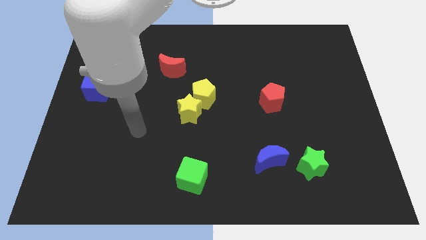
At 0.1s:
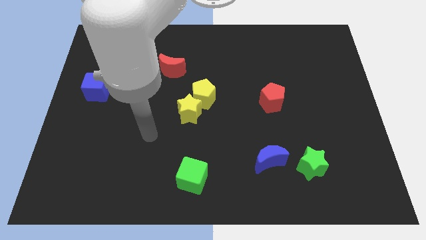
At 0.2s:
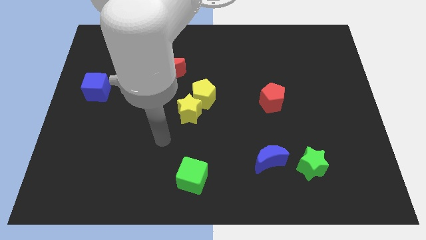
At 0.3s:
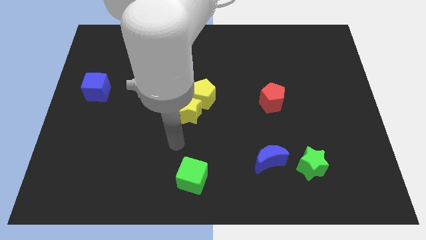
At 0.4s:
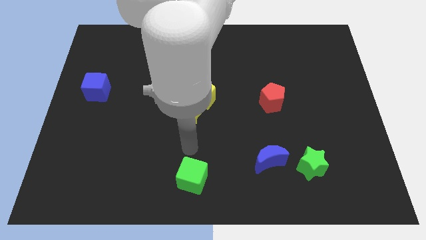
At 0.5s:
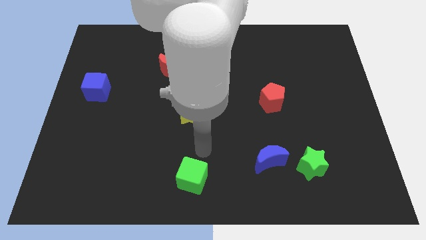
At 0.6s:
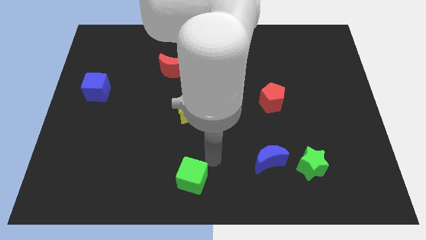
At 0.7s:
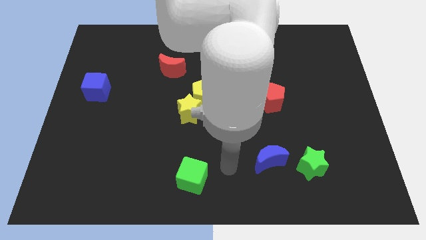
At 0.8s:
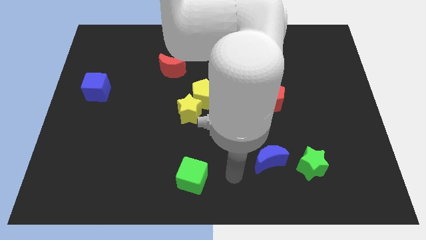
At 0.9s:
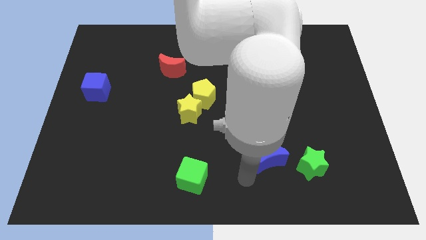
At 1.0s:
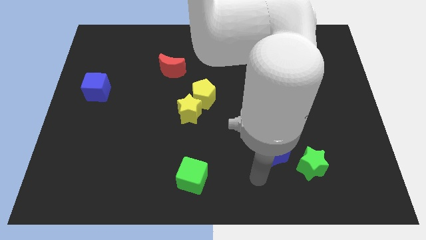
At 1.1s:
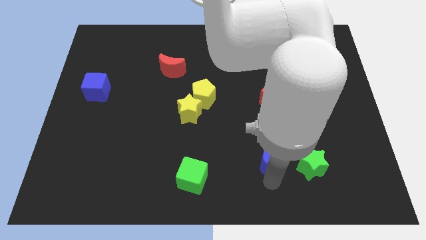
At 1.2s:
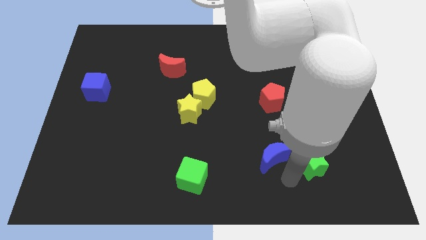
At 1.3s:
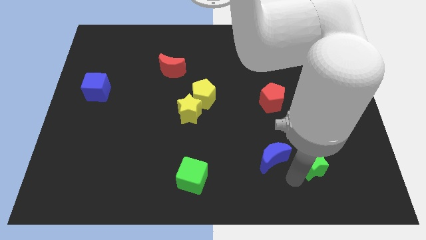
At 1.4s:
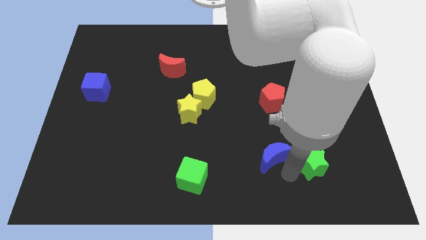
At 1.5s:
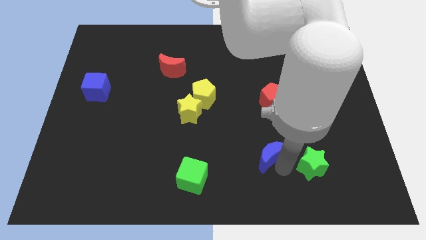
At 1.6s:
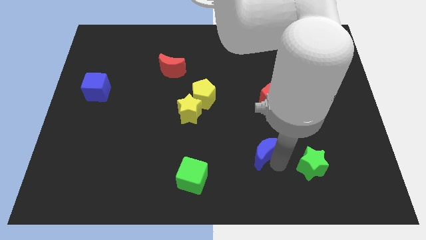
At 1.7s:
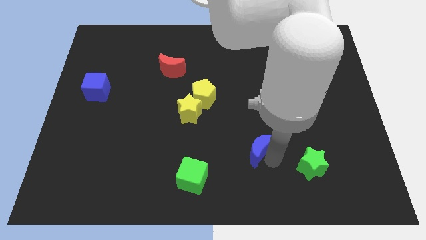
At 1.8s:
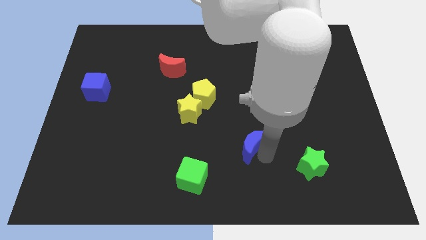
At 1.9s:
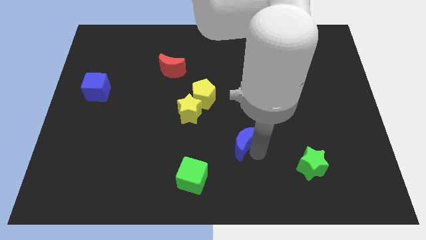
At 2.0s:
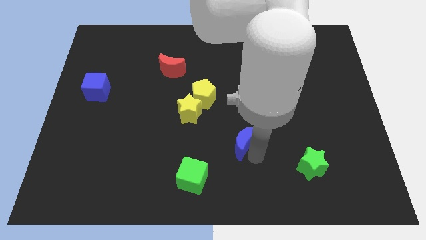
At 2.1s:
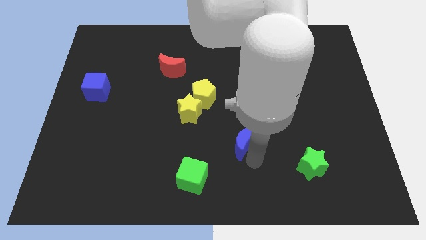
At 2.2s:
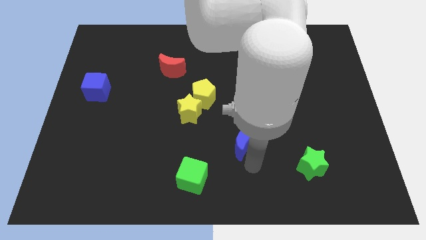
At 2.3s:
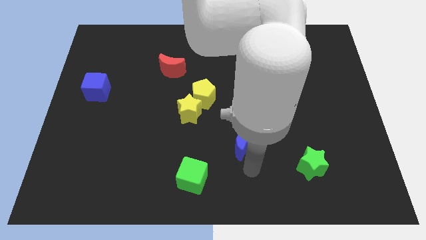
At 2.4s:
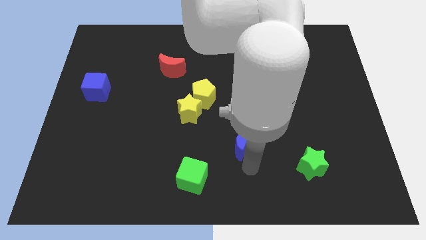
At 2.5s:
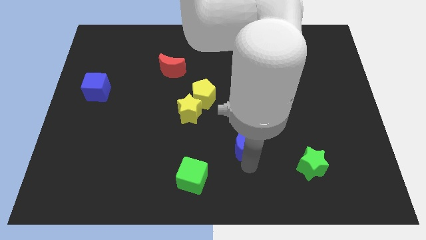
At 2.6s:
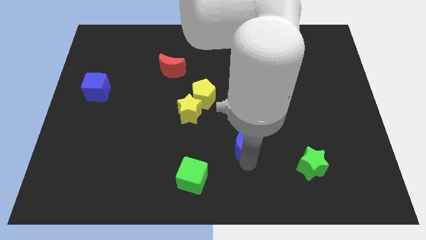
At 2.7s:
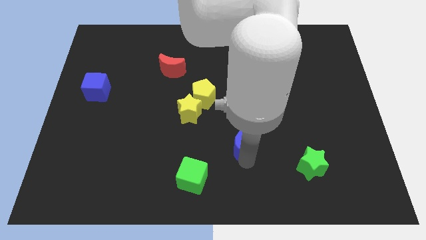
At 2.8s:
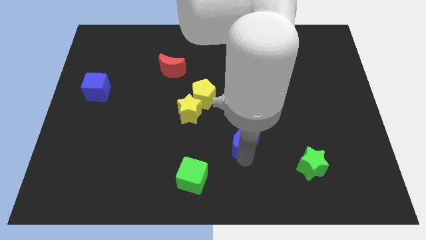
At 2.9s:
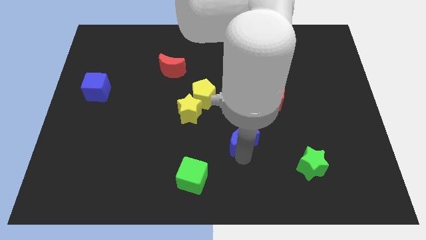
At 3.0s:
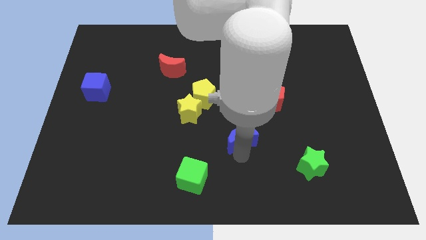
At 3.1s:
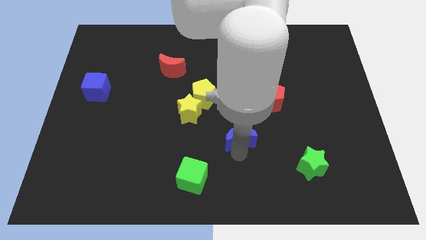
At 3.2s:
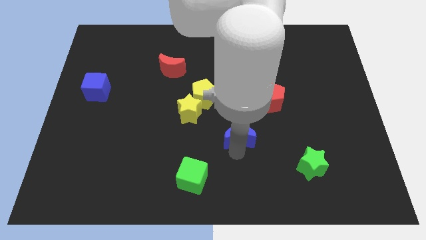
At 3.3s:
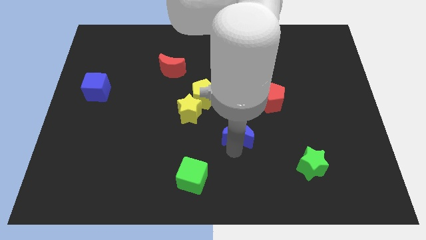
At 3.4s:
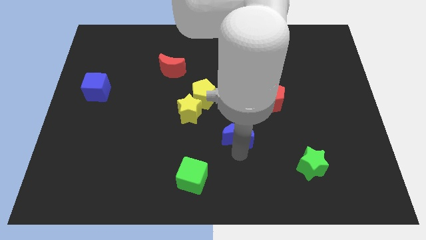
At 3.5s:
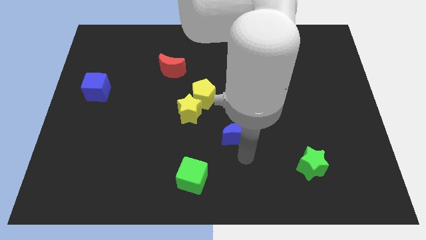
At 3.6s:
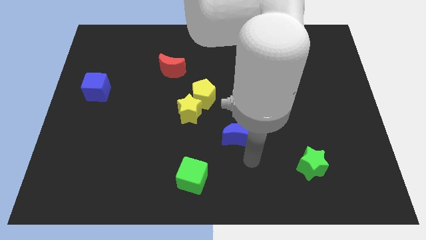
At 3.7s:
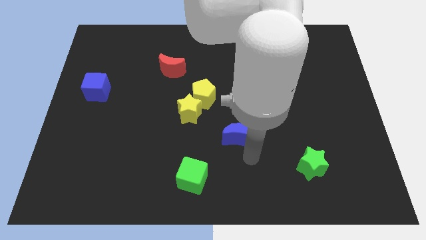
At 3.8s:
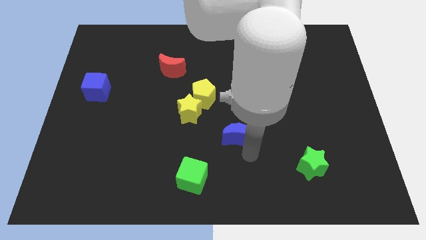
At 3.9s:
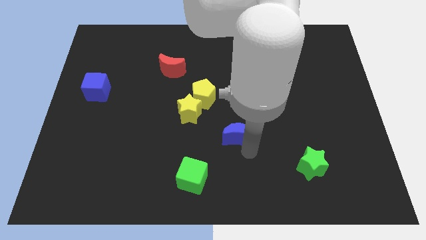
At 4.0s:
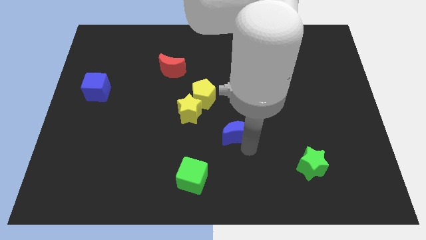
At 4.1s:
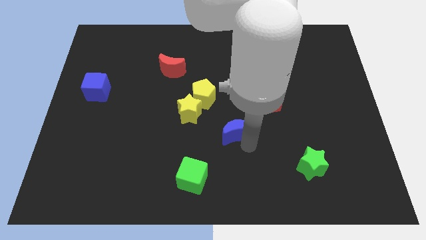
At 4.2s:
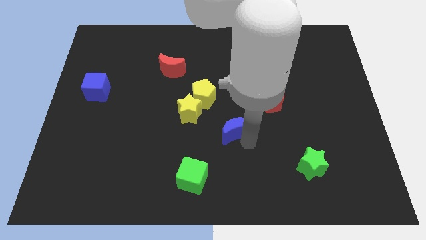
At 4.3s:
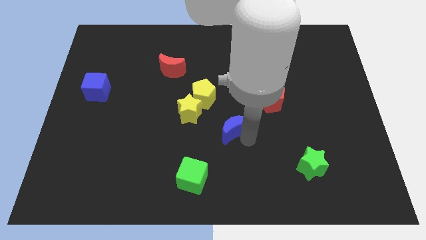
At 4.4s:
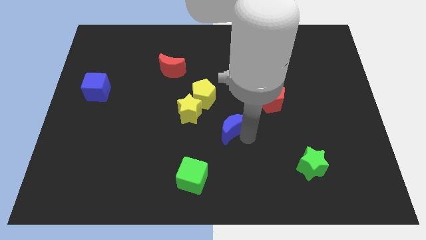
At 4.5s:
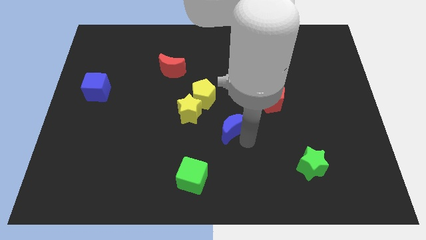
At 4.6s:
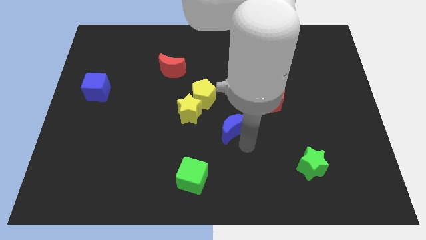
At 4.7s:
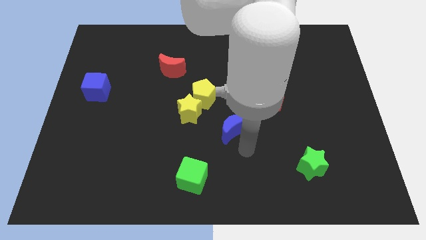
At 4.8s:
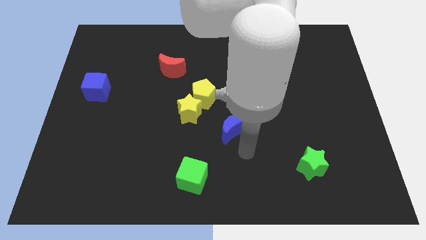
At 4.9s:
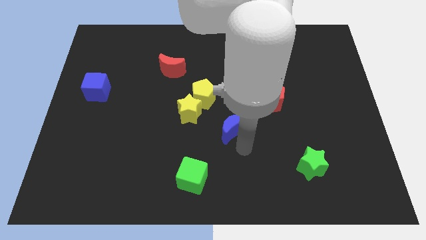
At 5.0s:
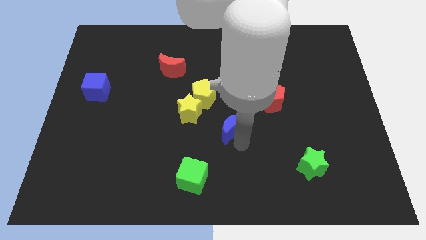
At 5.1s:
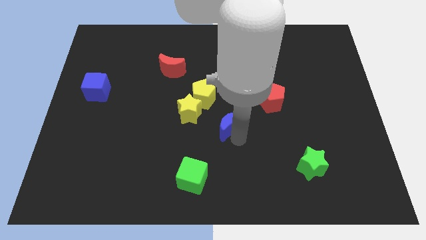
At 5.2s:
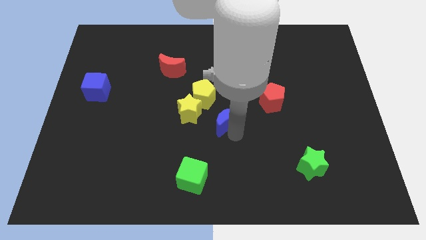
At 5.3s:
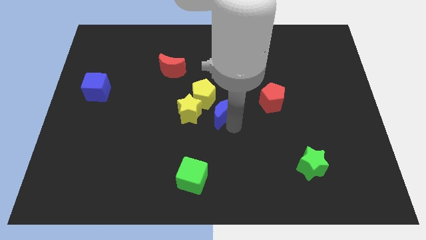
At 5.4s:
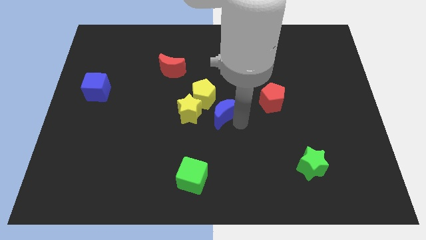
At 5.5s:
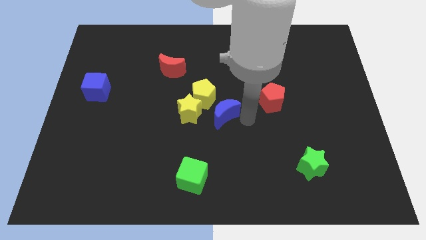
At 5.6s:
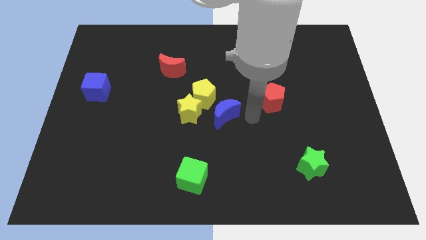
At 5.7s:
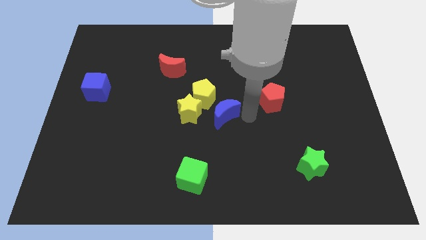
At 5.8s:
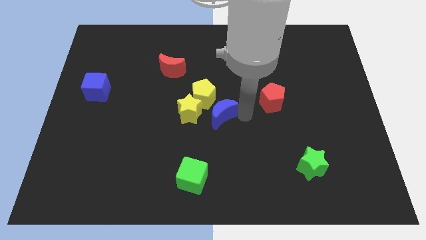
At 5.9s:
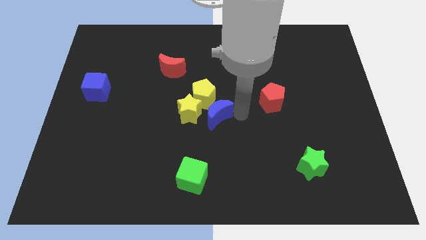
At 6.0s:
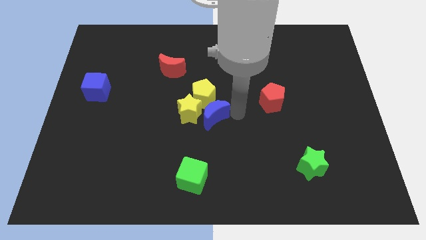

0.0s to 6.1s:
push the blue moon towards the yellow star

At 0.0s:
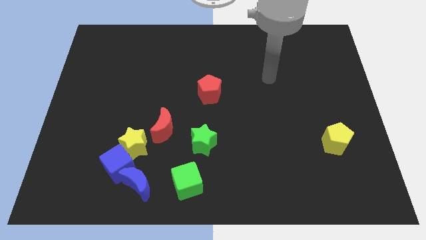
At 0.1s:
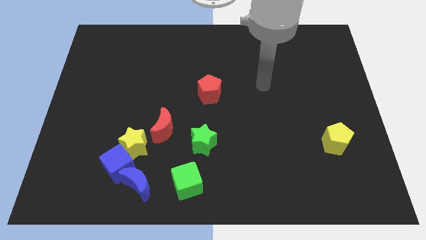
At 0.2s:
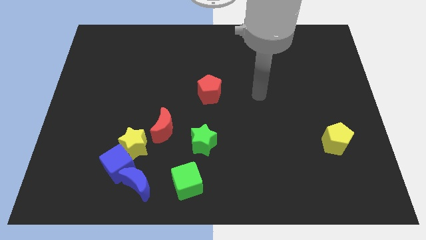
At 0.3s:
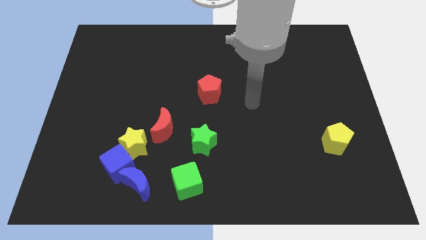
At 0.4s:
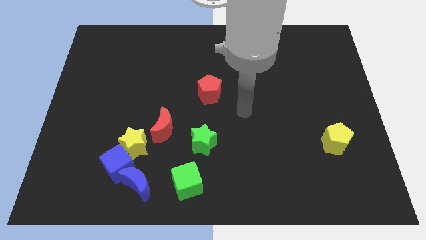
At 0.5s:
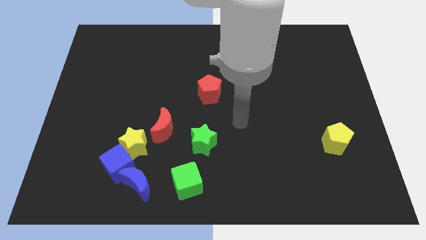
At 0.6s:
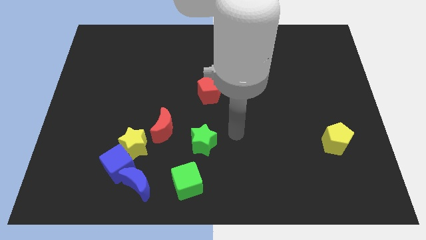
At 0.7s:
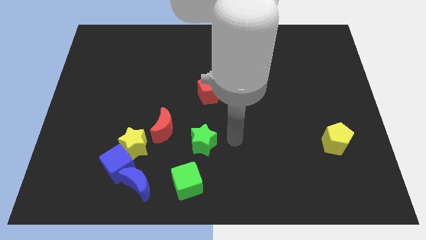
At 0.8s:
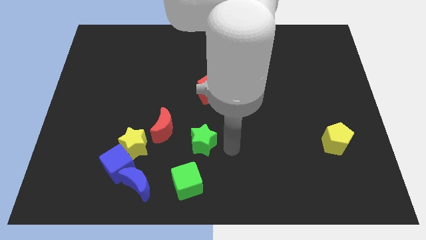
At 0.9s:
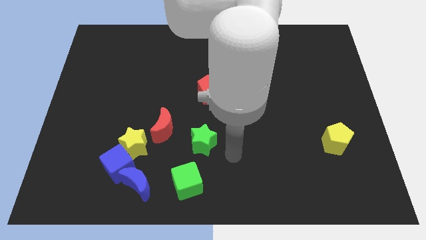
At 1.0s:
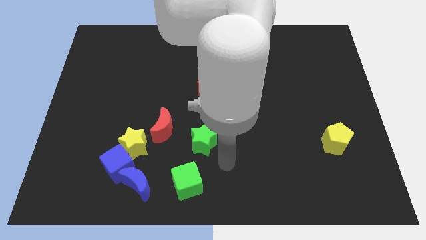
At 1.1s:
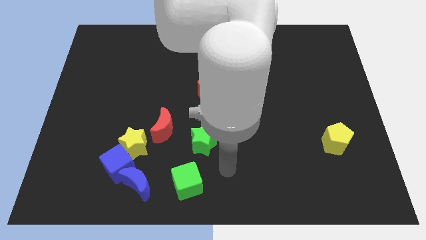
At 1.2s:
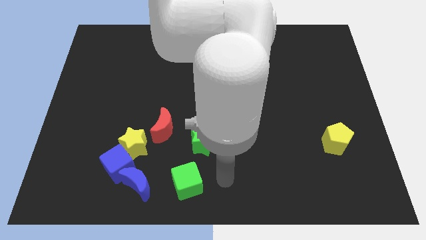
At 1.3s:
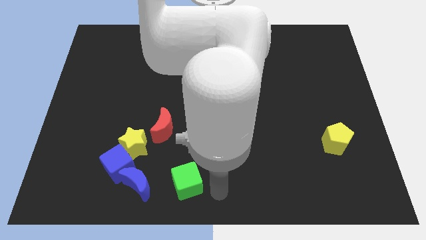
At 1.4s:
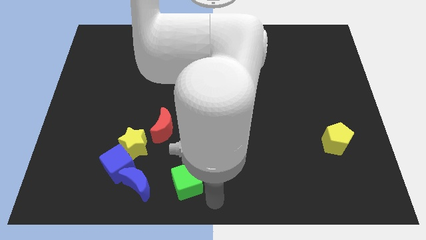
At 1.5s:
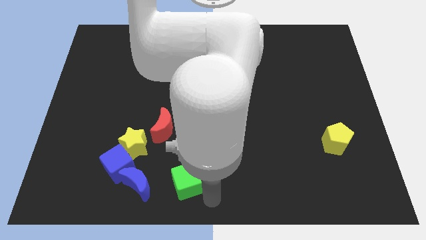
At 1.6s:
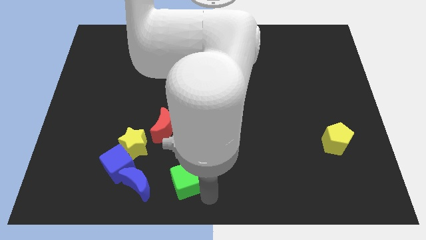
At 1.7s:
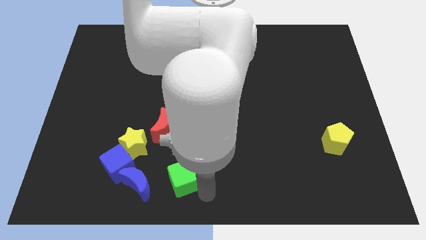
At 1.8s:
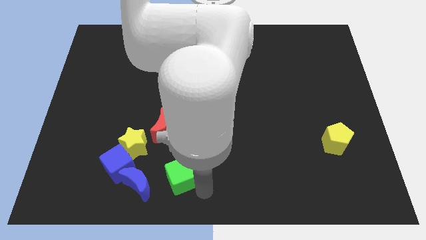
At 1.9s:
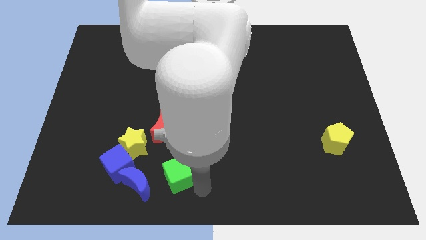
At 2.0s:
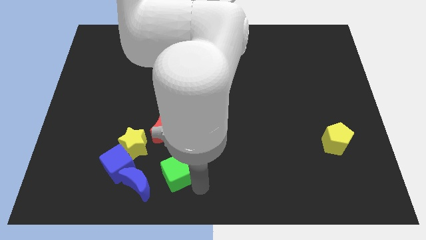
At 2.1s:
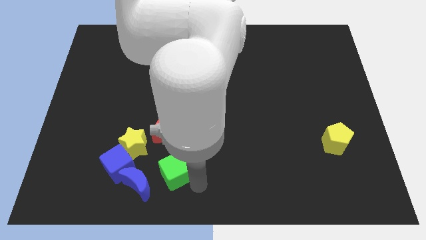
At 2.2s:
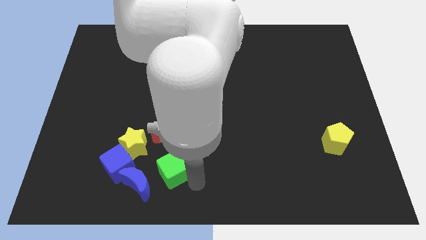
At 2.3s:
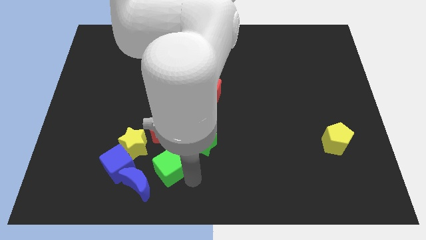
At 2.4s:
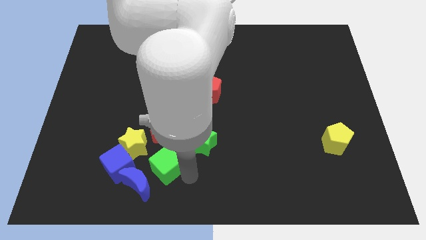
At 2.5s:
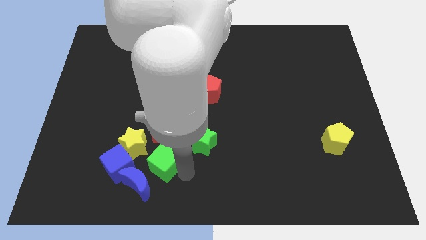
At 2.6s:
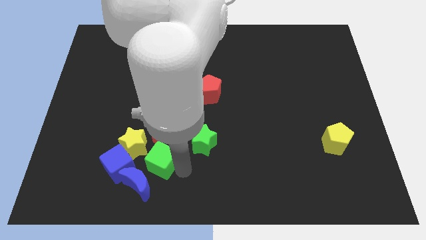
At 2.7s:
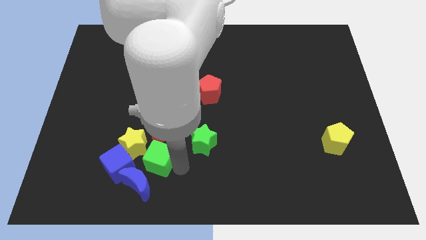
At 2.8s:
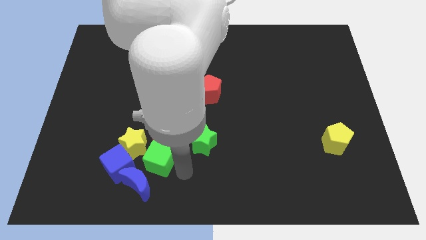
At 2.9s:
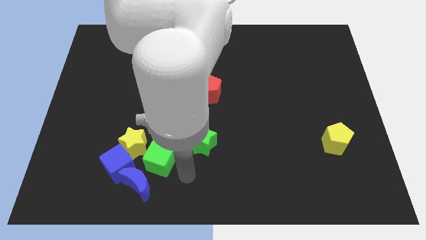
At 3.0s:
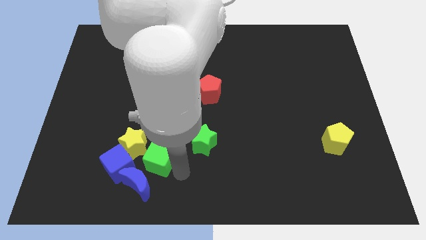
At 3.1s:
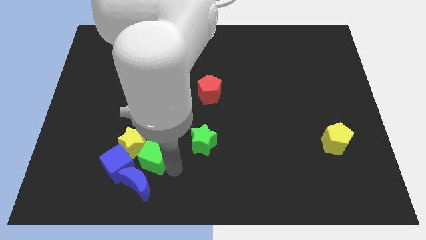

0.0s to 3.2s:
slide the green cube close to the yellow star
